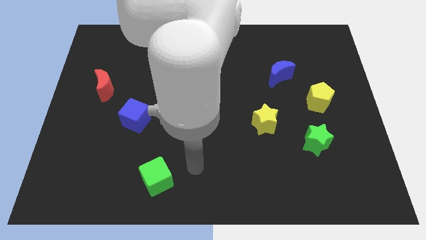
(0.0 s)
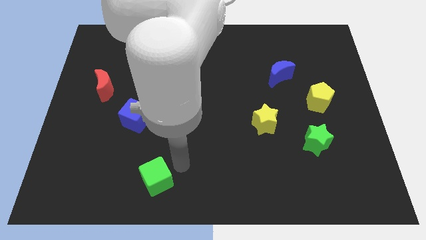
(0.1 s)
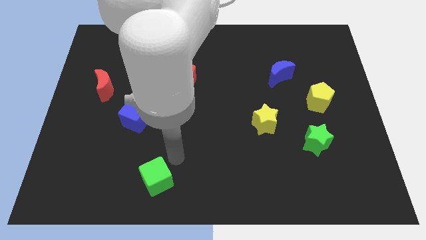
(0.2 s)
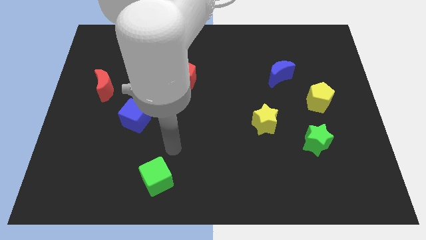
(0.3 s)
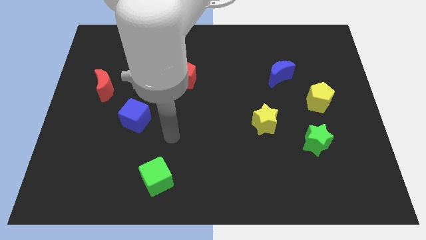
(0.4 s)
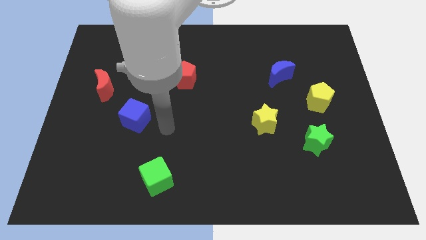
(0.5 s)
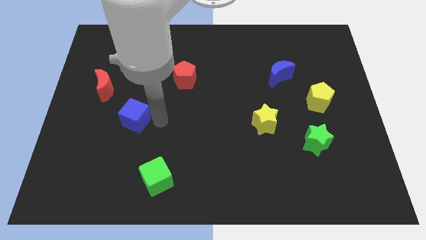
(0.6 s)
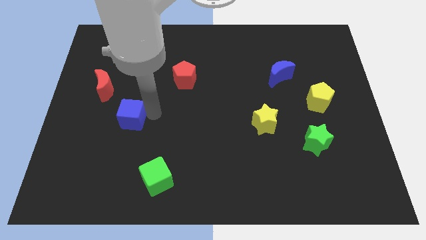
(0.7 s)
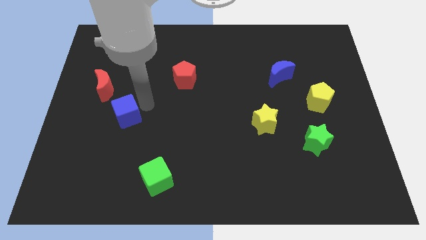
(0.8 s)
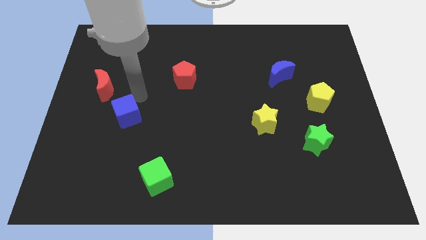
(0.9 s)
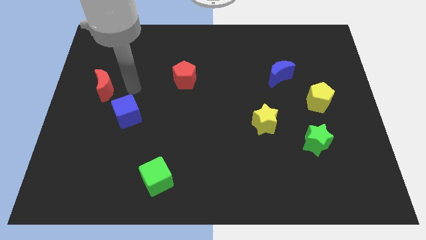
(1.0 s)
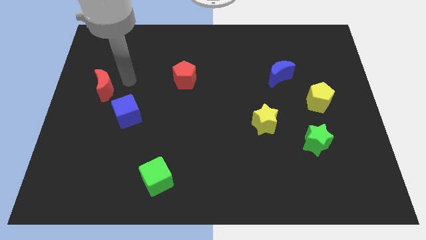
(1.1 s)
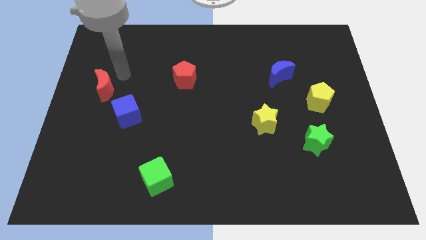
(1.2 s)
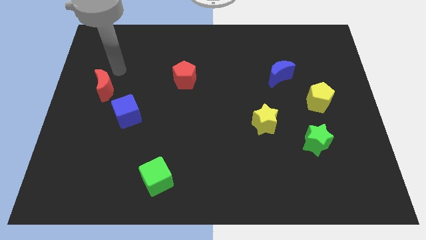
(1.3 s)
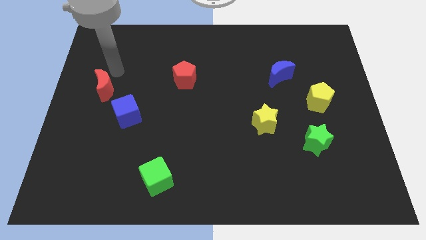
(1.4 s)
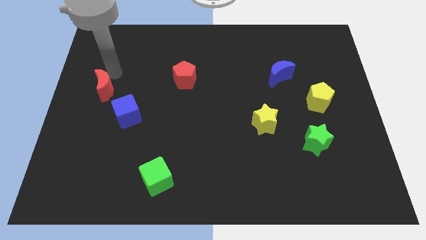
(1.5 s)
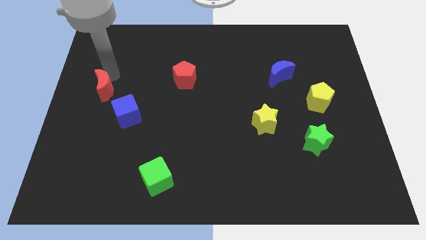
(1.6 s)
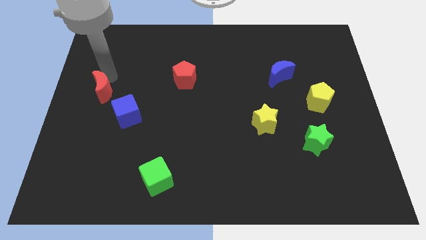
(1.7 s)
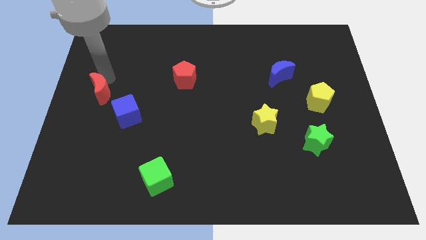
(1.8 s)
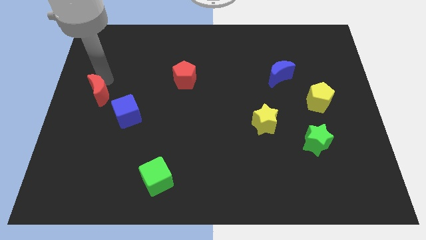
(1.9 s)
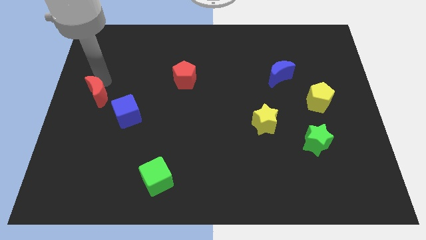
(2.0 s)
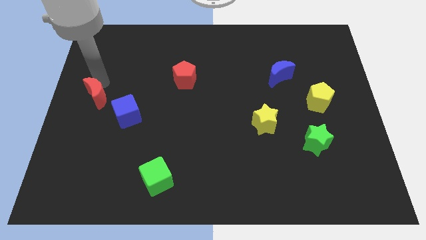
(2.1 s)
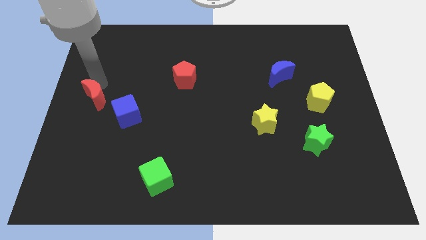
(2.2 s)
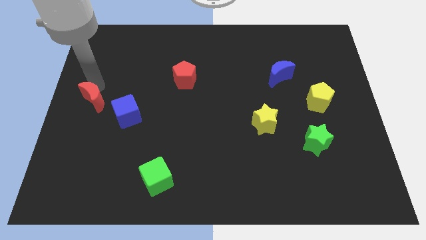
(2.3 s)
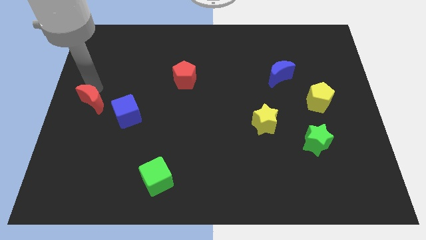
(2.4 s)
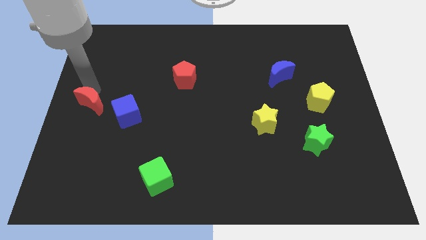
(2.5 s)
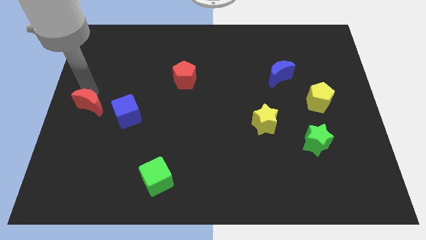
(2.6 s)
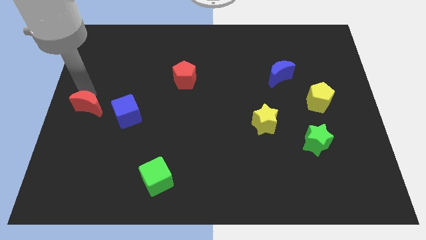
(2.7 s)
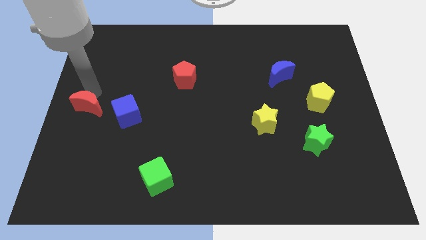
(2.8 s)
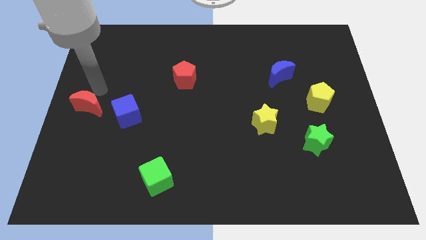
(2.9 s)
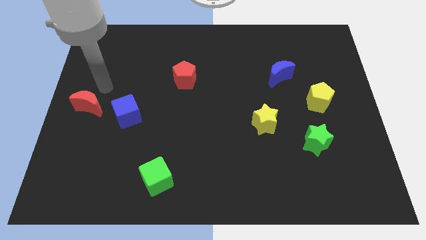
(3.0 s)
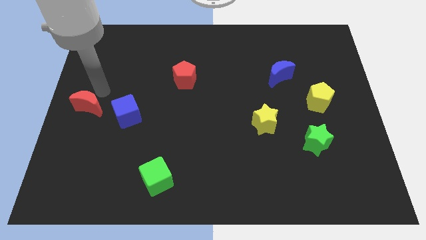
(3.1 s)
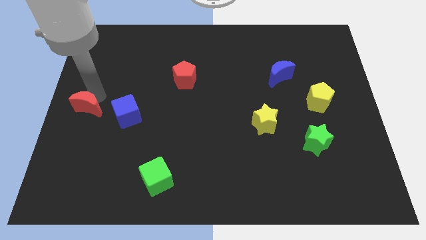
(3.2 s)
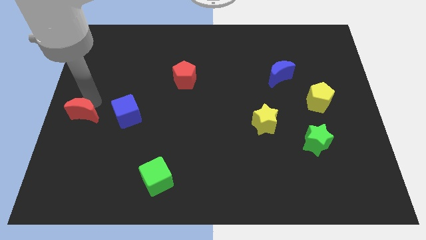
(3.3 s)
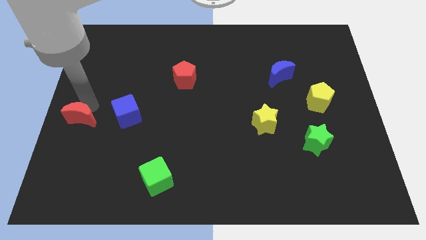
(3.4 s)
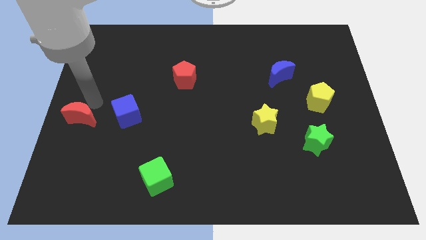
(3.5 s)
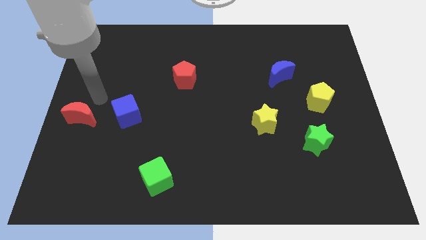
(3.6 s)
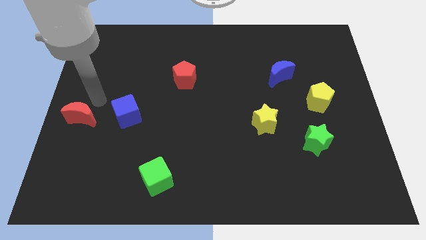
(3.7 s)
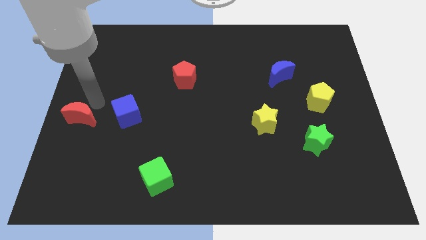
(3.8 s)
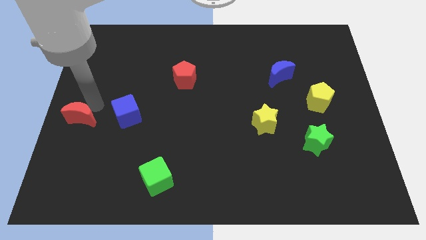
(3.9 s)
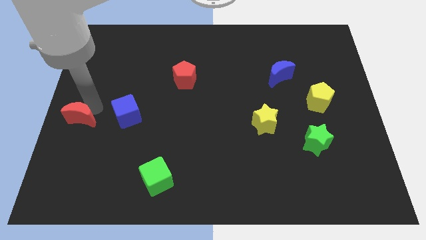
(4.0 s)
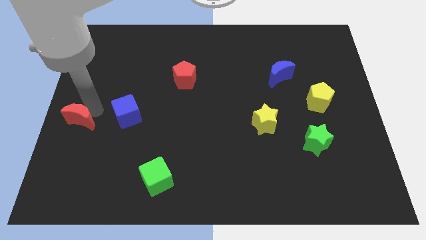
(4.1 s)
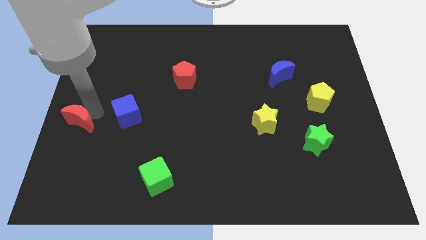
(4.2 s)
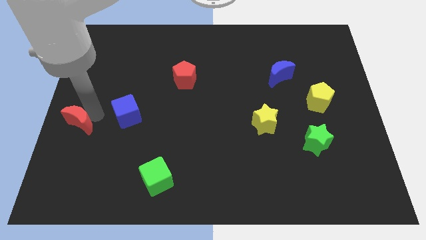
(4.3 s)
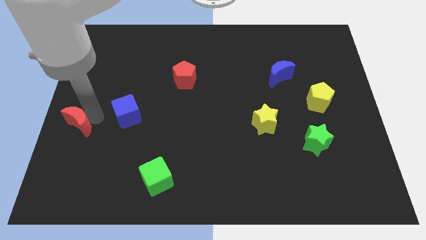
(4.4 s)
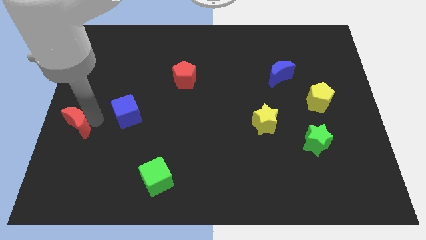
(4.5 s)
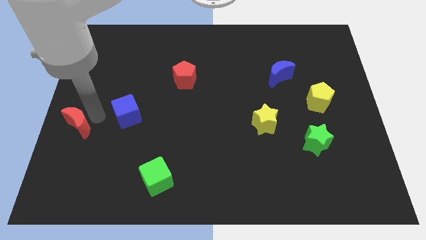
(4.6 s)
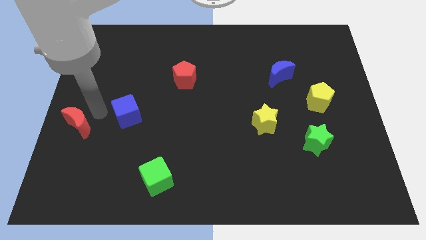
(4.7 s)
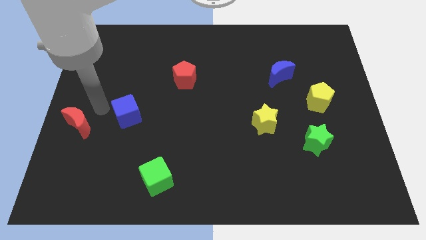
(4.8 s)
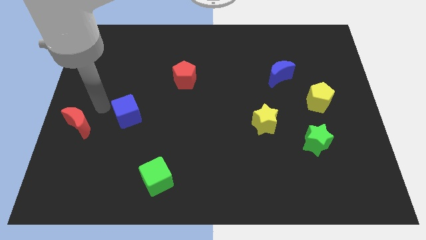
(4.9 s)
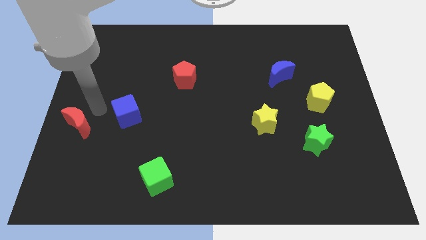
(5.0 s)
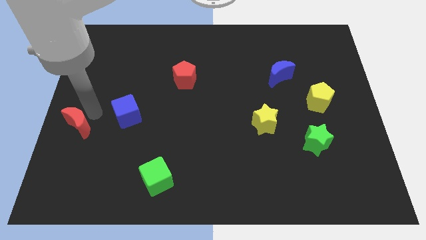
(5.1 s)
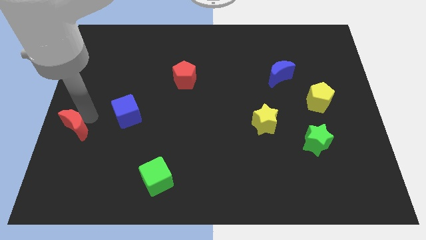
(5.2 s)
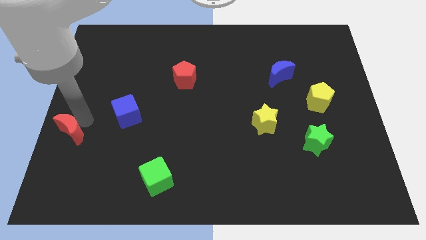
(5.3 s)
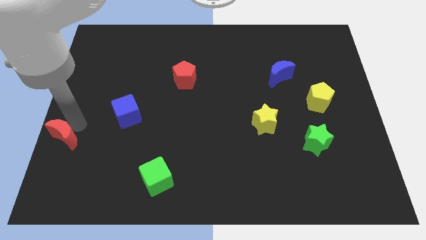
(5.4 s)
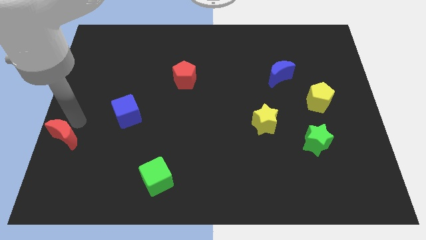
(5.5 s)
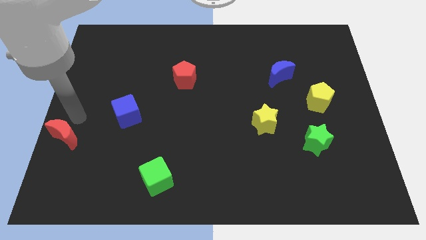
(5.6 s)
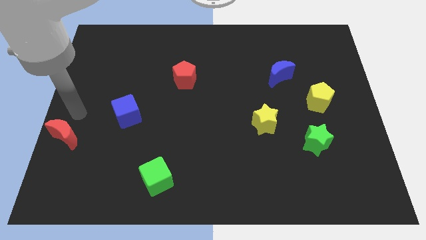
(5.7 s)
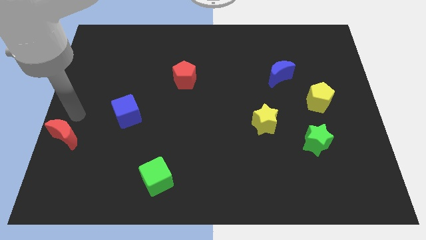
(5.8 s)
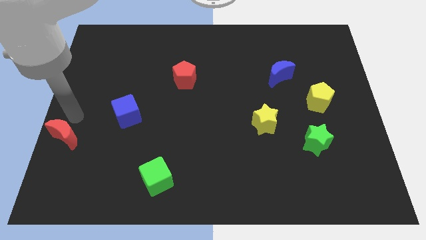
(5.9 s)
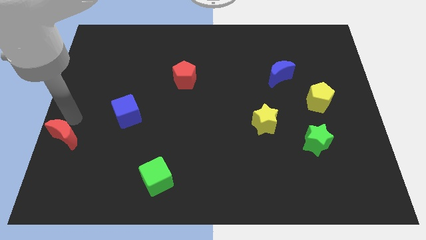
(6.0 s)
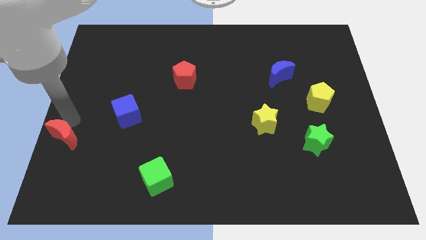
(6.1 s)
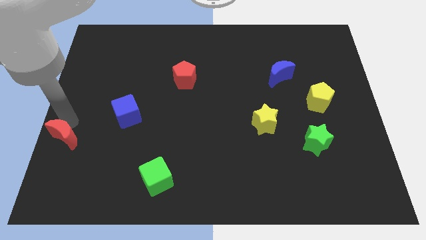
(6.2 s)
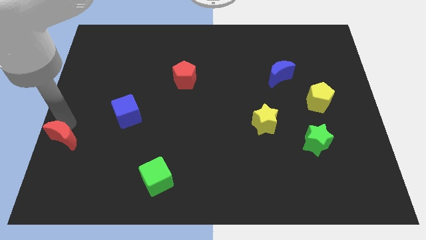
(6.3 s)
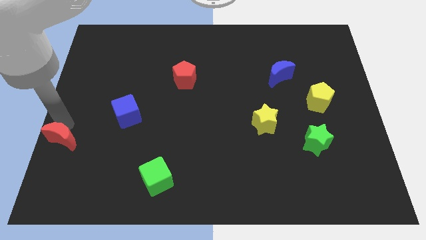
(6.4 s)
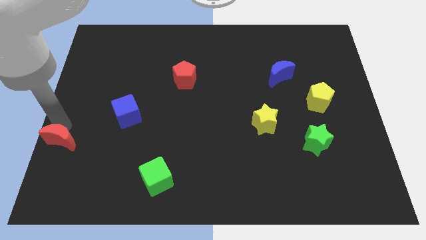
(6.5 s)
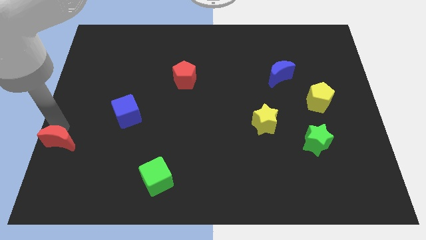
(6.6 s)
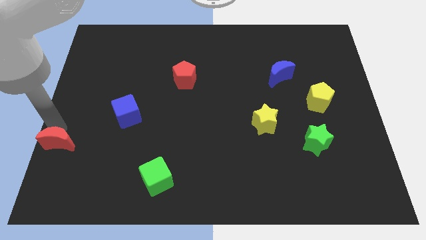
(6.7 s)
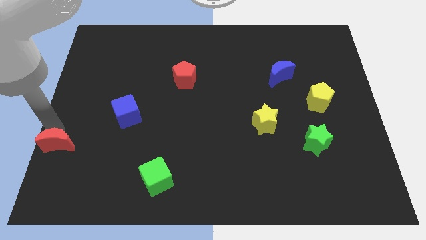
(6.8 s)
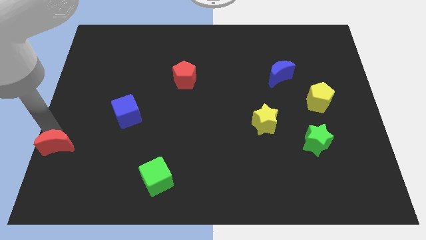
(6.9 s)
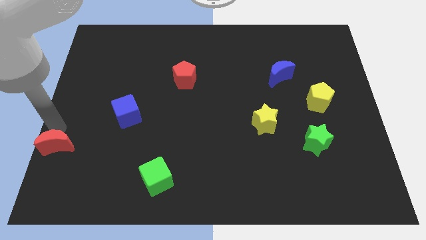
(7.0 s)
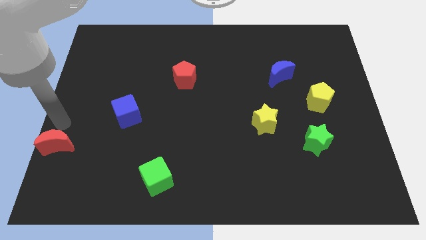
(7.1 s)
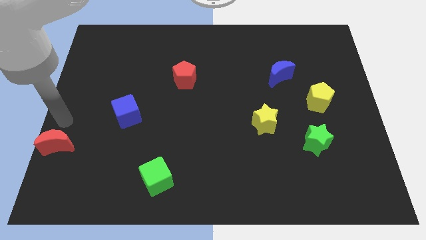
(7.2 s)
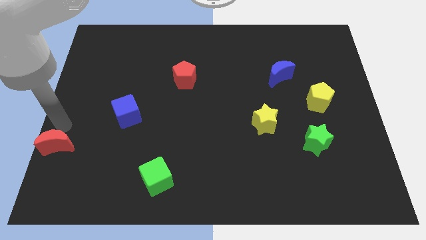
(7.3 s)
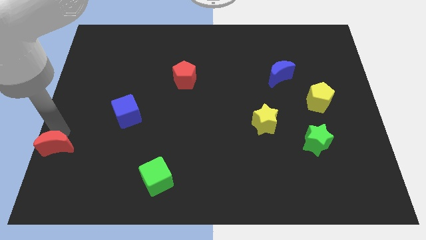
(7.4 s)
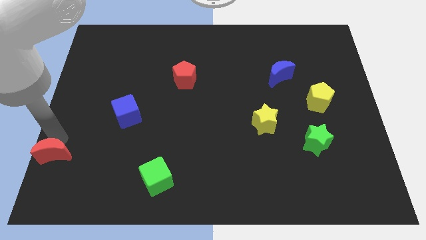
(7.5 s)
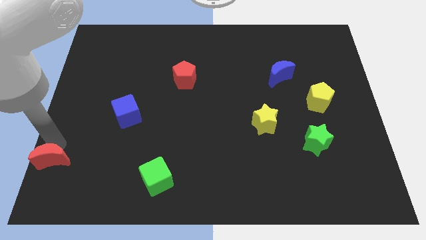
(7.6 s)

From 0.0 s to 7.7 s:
push the red moon to the bottom left corner
